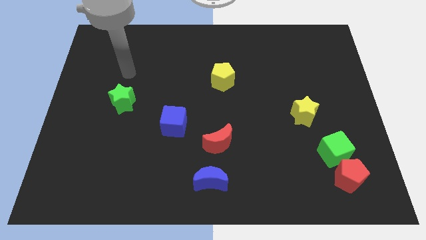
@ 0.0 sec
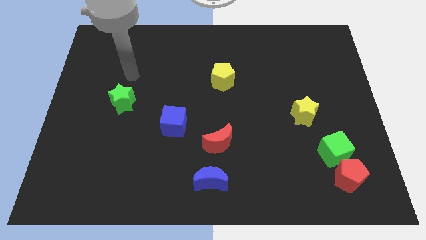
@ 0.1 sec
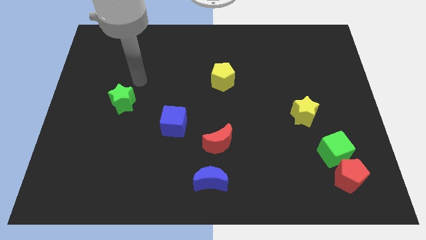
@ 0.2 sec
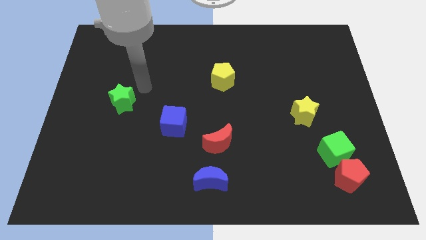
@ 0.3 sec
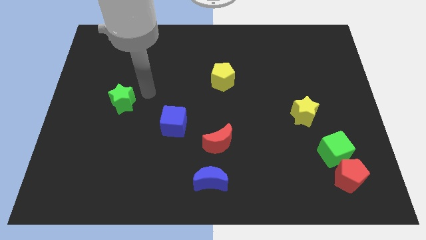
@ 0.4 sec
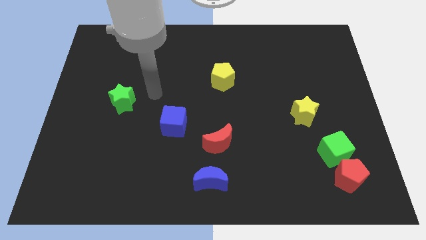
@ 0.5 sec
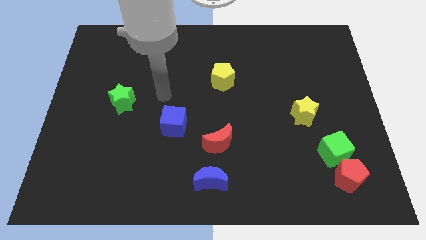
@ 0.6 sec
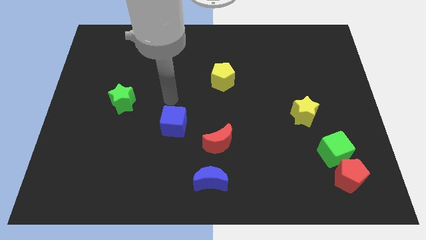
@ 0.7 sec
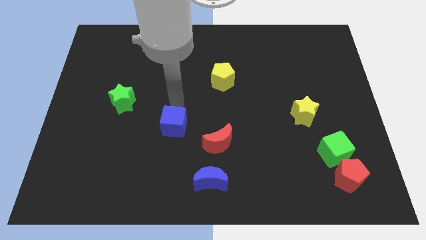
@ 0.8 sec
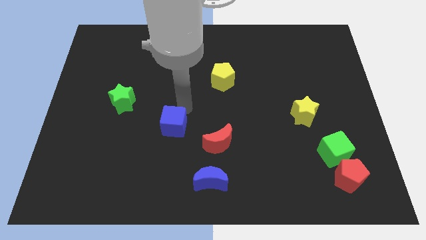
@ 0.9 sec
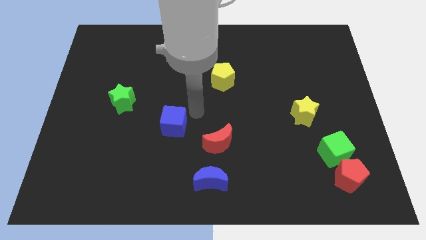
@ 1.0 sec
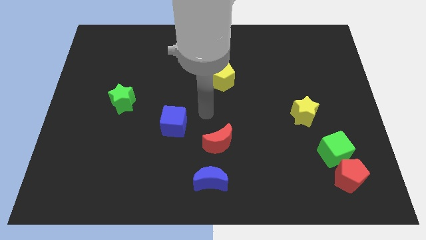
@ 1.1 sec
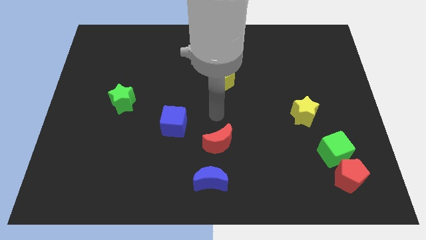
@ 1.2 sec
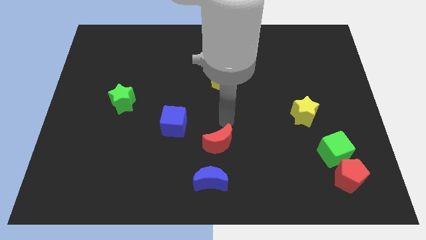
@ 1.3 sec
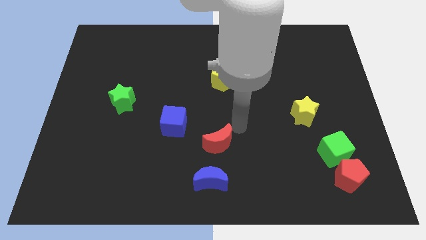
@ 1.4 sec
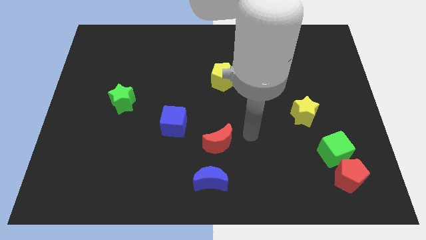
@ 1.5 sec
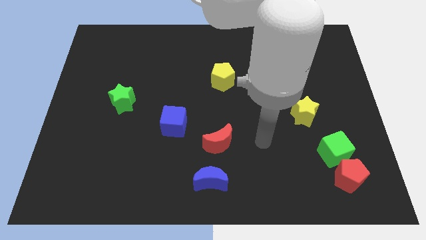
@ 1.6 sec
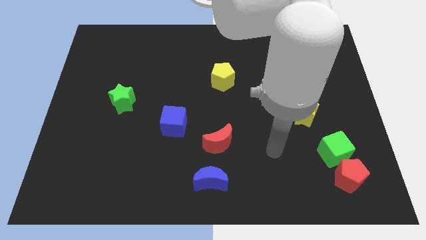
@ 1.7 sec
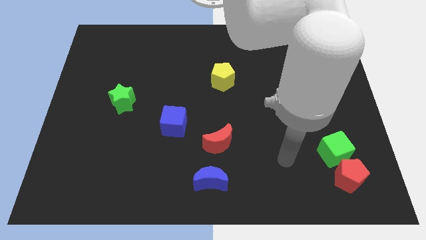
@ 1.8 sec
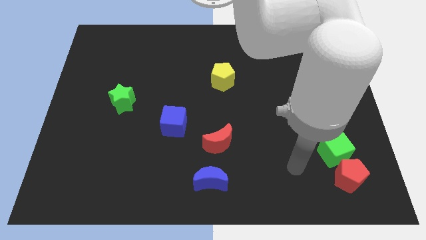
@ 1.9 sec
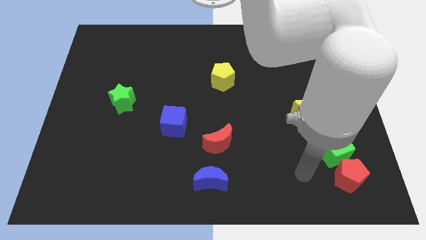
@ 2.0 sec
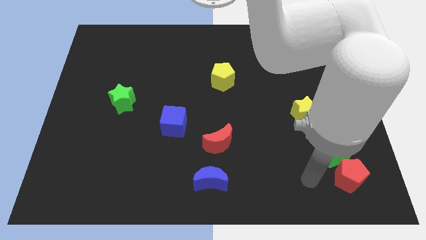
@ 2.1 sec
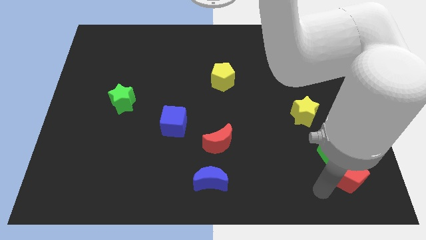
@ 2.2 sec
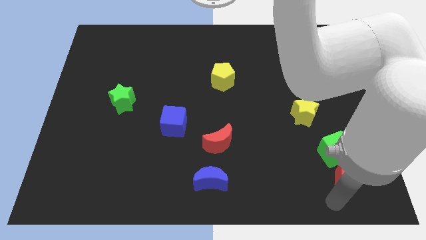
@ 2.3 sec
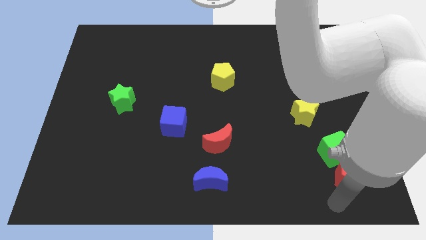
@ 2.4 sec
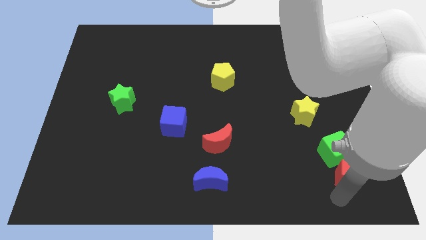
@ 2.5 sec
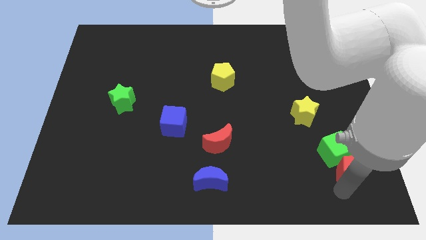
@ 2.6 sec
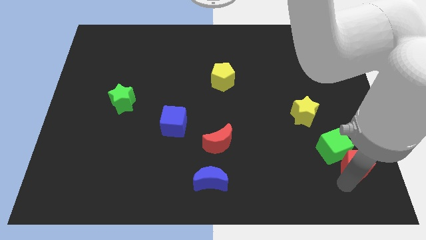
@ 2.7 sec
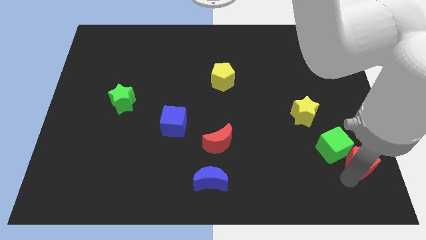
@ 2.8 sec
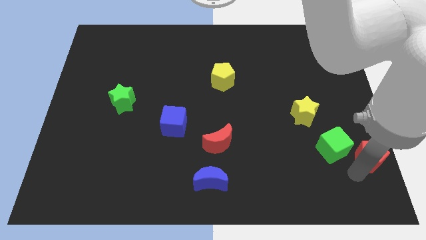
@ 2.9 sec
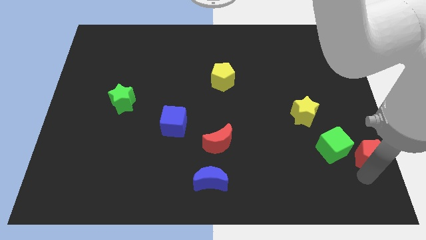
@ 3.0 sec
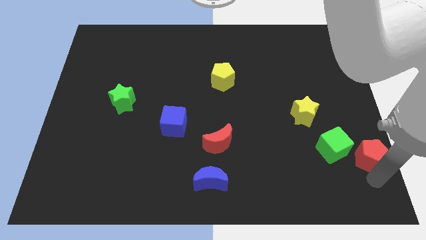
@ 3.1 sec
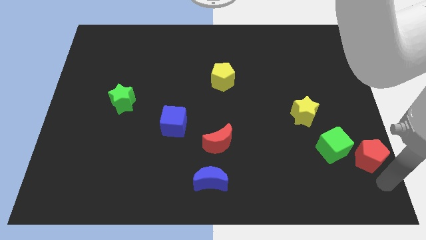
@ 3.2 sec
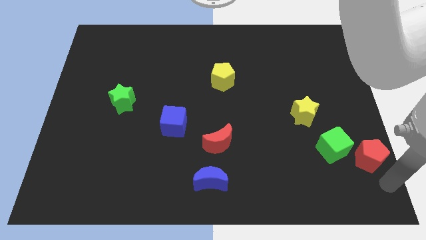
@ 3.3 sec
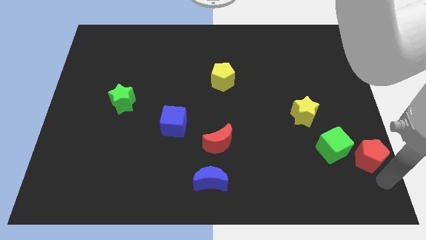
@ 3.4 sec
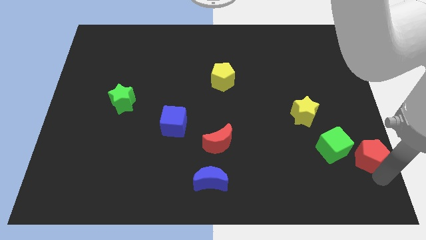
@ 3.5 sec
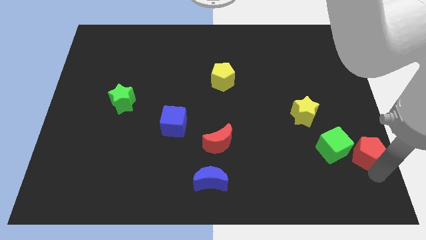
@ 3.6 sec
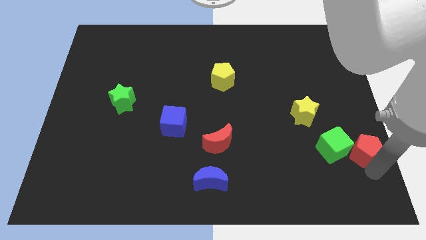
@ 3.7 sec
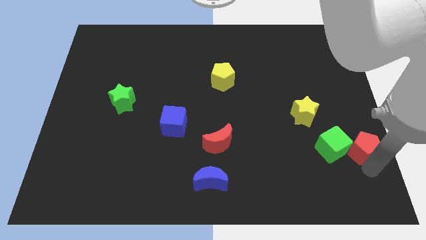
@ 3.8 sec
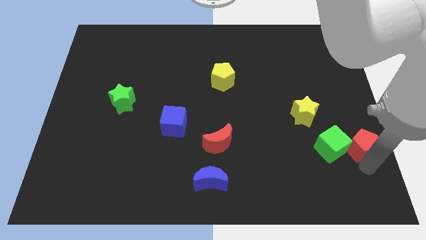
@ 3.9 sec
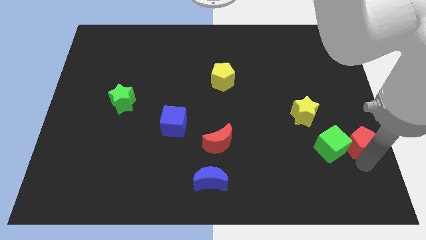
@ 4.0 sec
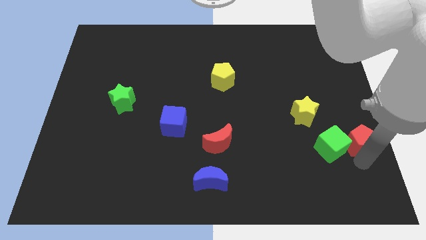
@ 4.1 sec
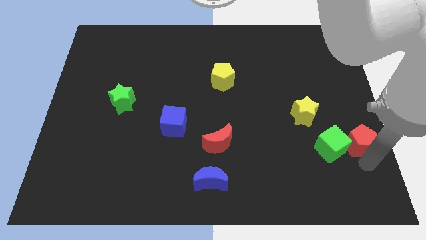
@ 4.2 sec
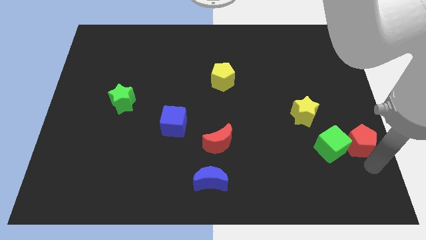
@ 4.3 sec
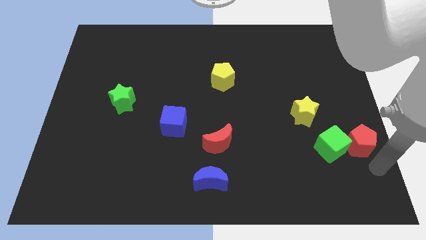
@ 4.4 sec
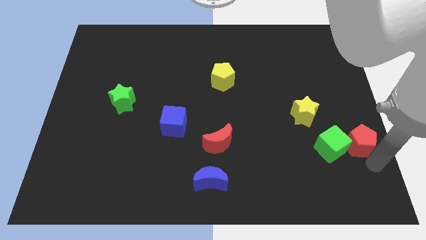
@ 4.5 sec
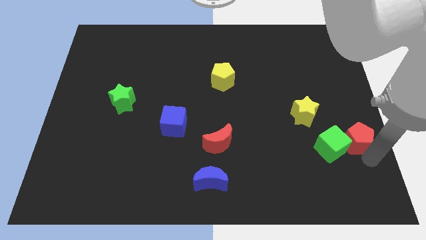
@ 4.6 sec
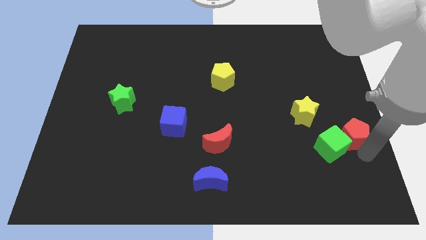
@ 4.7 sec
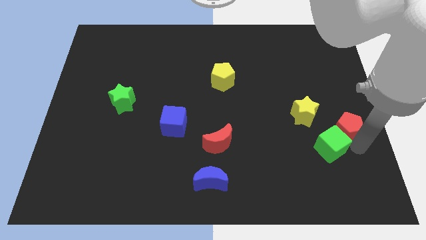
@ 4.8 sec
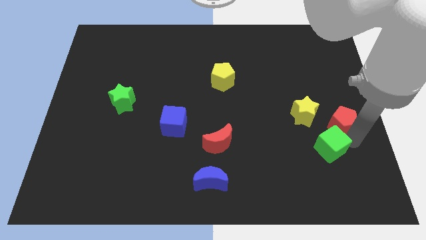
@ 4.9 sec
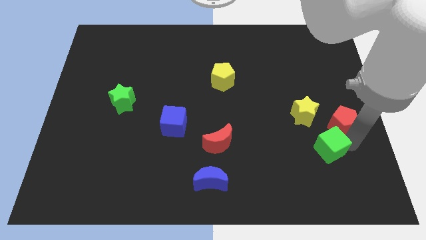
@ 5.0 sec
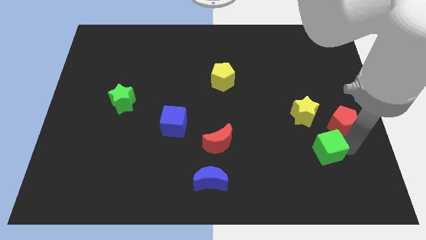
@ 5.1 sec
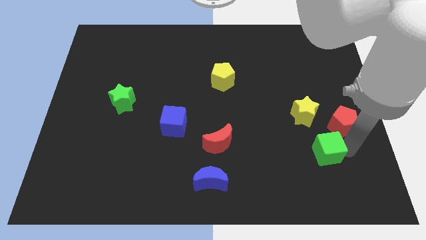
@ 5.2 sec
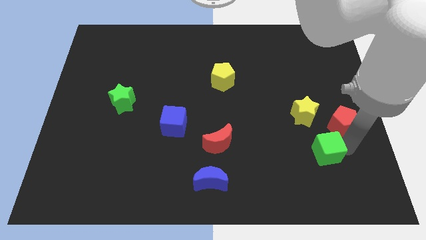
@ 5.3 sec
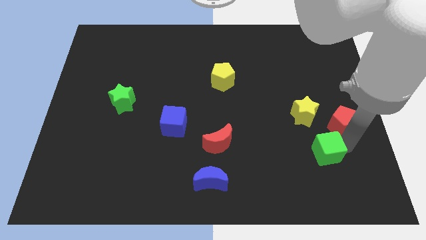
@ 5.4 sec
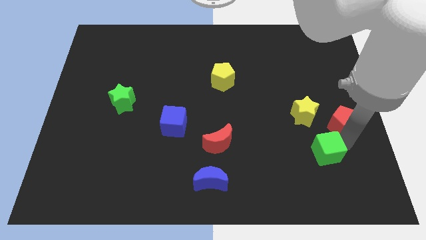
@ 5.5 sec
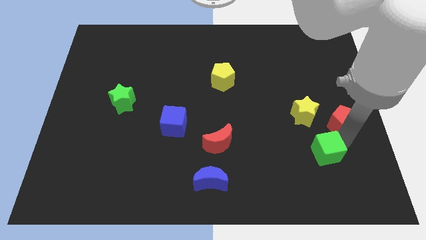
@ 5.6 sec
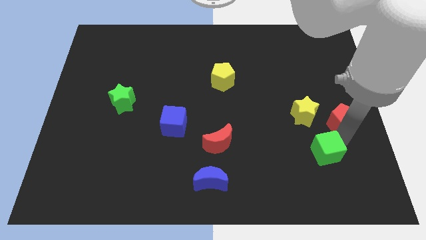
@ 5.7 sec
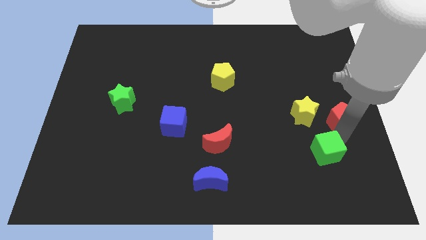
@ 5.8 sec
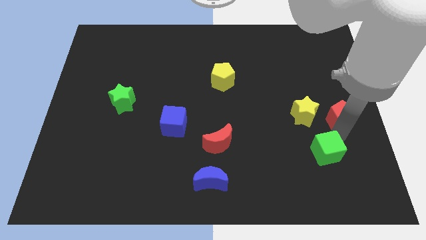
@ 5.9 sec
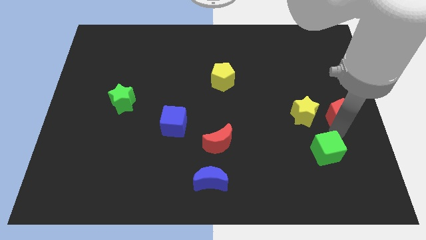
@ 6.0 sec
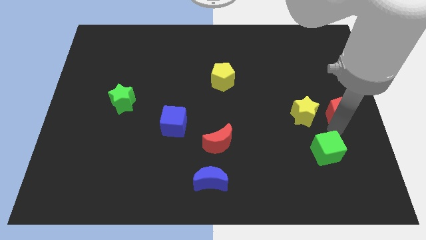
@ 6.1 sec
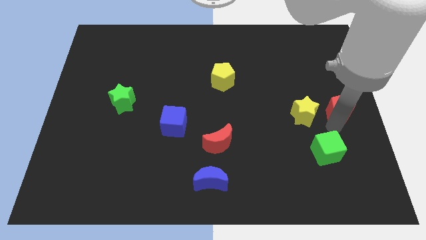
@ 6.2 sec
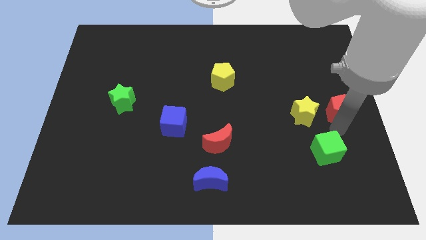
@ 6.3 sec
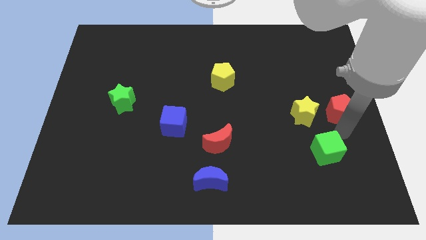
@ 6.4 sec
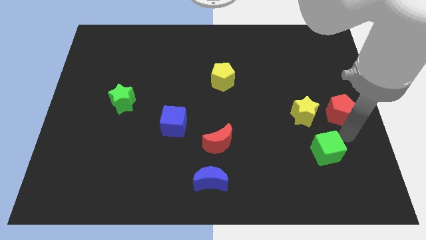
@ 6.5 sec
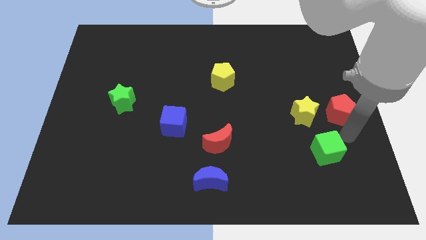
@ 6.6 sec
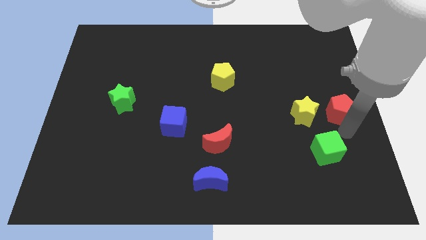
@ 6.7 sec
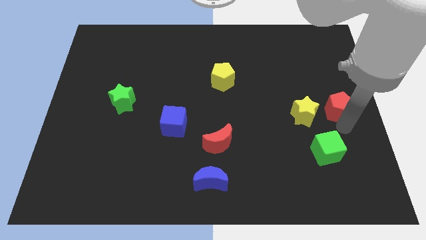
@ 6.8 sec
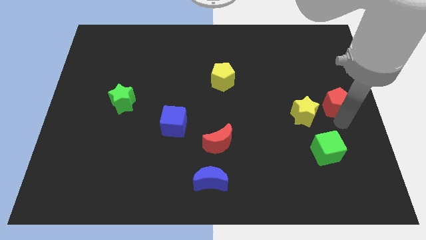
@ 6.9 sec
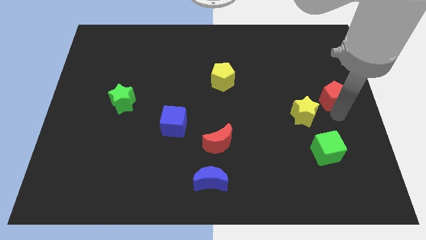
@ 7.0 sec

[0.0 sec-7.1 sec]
push the red pentagon up

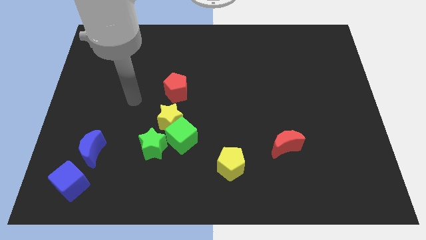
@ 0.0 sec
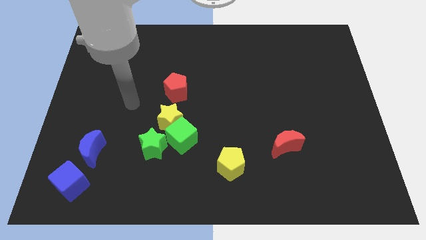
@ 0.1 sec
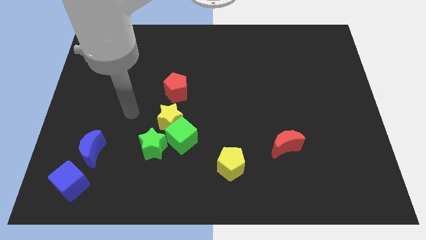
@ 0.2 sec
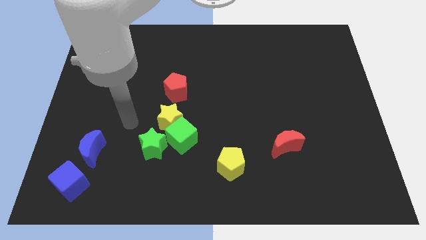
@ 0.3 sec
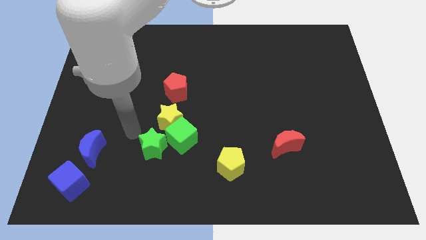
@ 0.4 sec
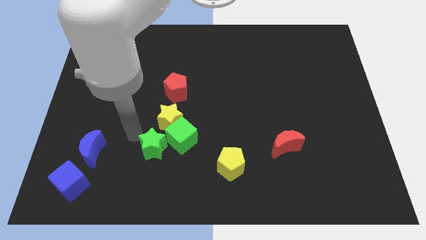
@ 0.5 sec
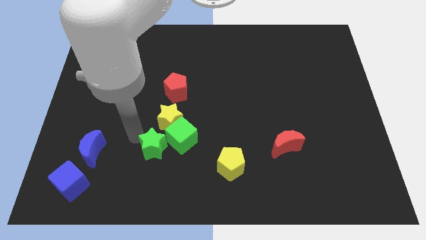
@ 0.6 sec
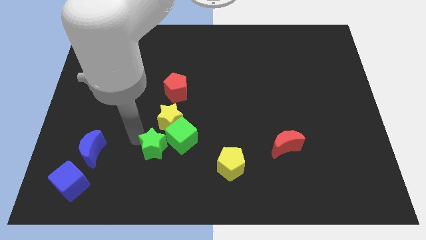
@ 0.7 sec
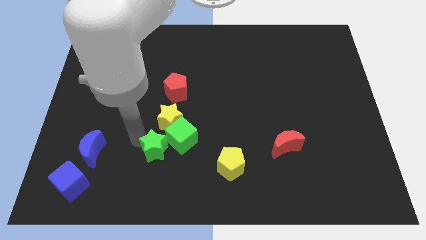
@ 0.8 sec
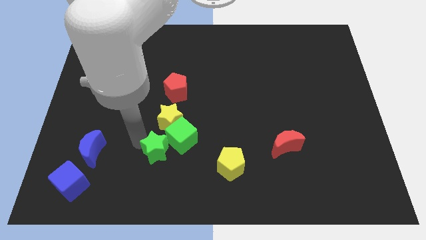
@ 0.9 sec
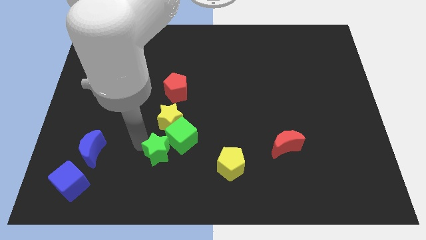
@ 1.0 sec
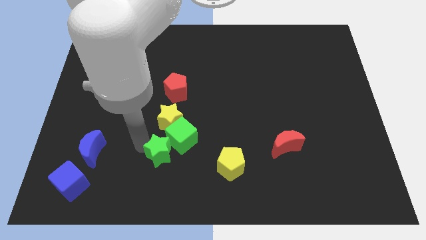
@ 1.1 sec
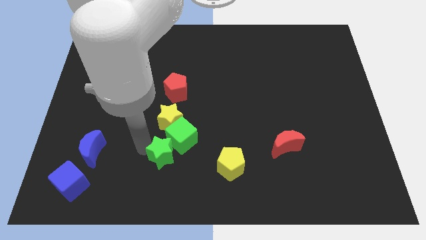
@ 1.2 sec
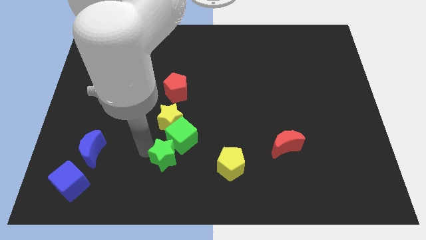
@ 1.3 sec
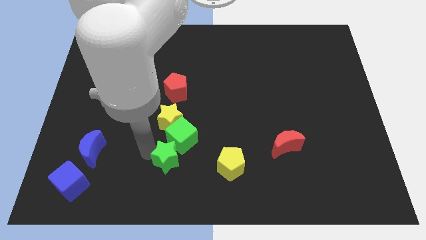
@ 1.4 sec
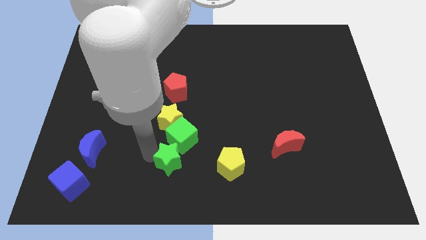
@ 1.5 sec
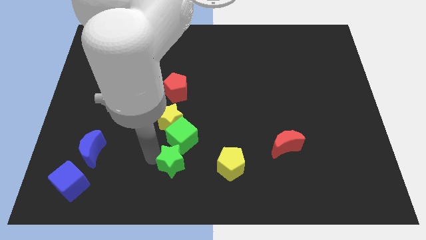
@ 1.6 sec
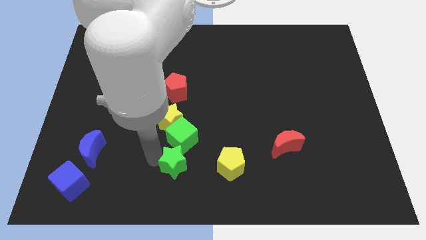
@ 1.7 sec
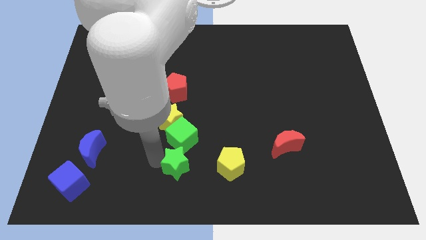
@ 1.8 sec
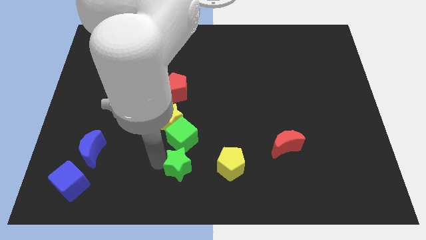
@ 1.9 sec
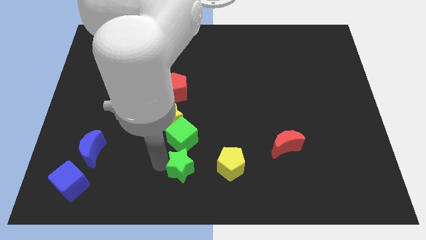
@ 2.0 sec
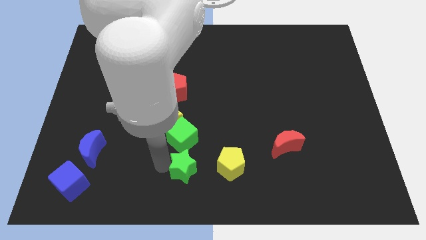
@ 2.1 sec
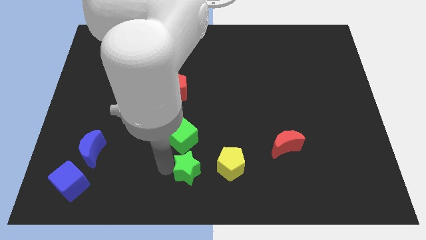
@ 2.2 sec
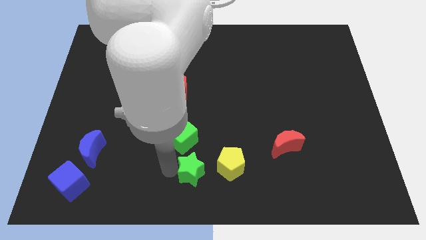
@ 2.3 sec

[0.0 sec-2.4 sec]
slightly push the green star to the right
